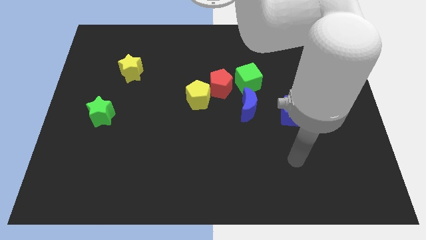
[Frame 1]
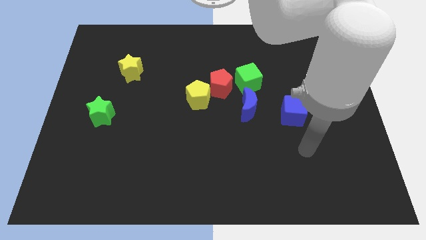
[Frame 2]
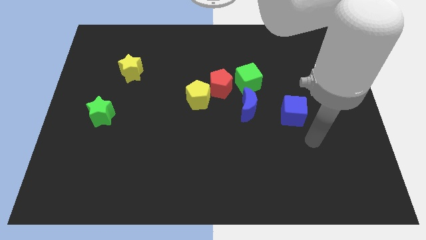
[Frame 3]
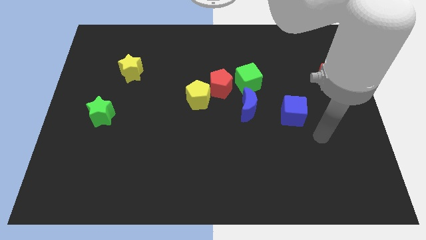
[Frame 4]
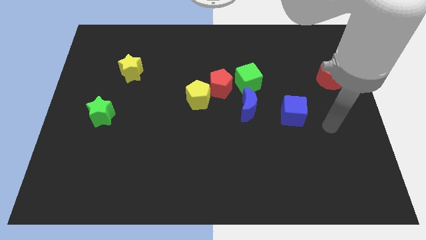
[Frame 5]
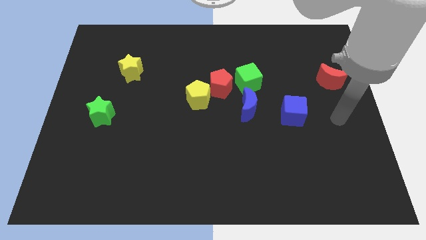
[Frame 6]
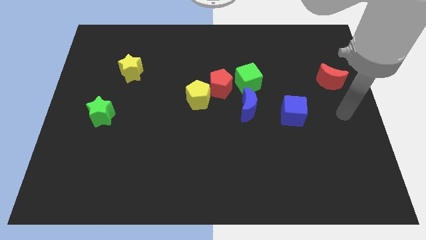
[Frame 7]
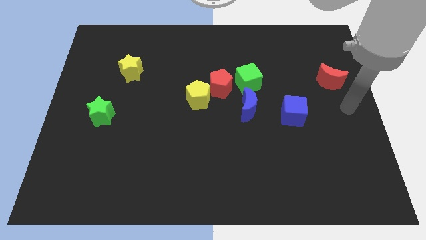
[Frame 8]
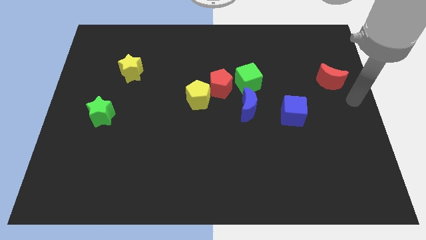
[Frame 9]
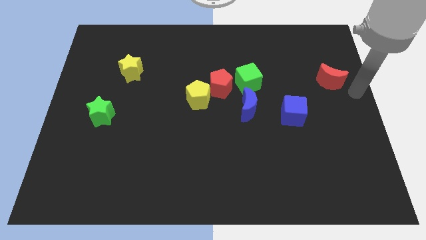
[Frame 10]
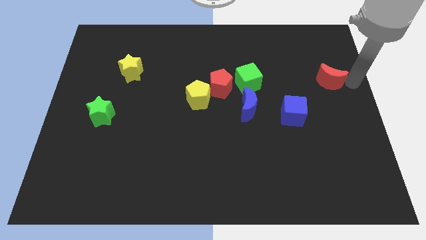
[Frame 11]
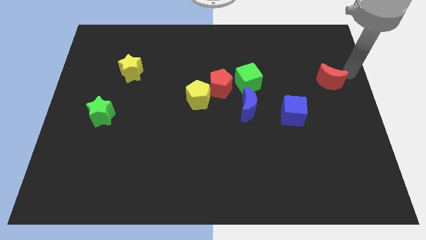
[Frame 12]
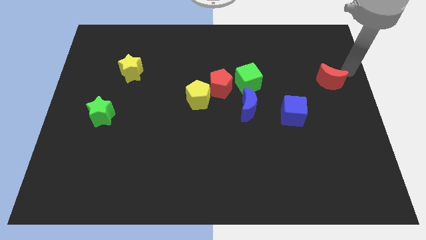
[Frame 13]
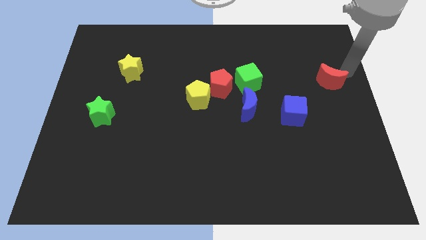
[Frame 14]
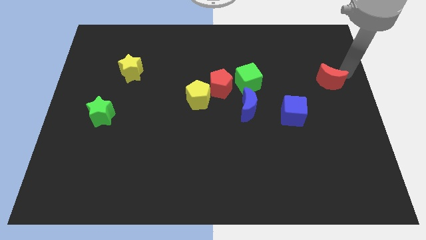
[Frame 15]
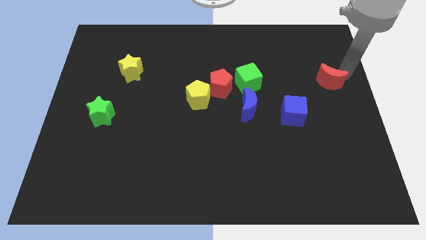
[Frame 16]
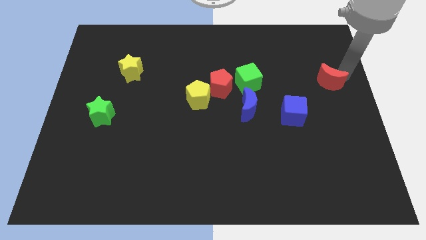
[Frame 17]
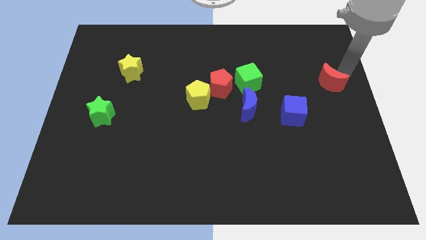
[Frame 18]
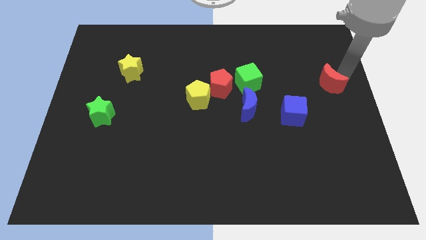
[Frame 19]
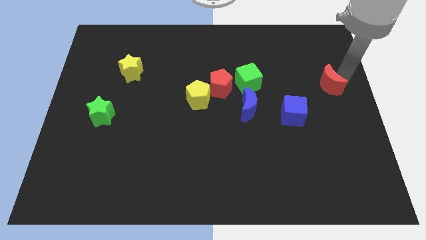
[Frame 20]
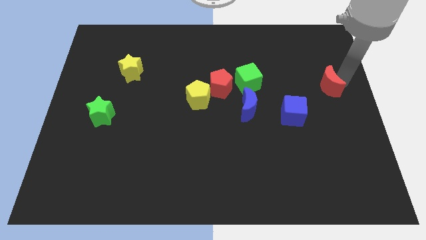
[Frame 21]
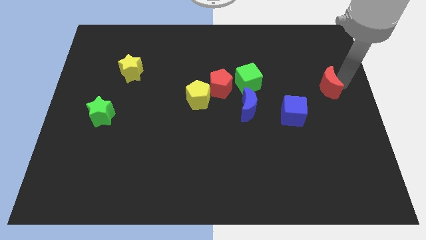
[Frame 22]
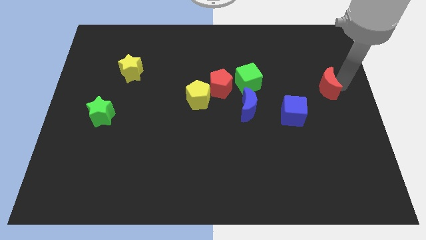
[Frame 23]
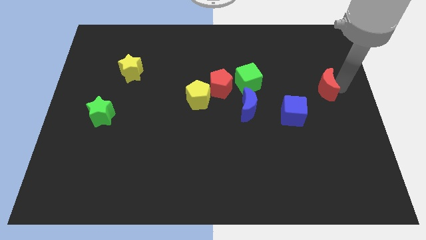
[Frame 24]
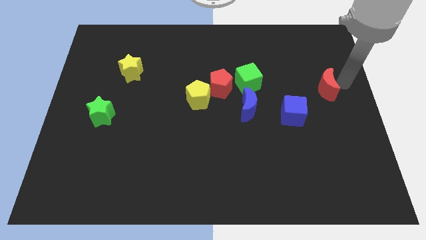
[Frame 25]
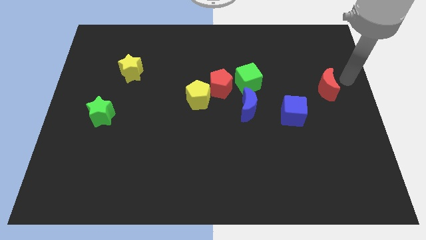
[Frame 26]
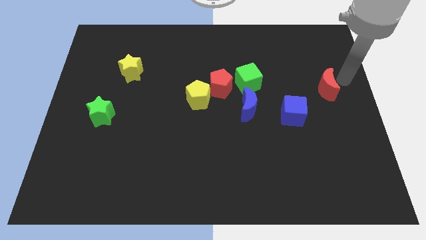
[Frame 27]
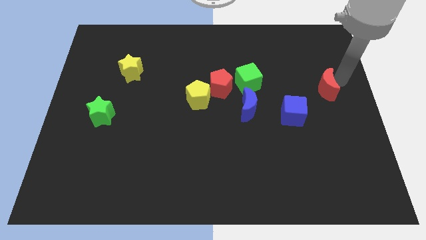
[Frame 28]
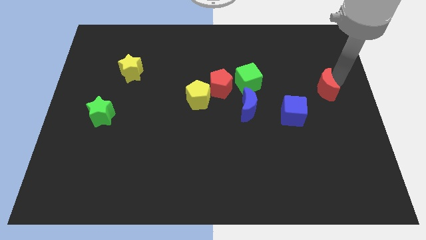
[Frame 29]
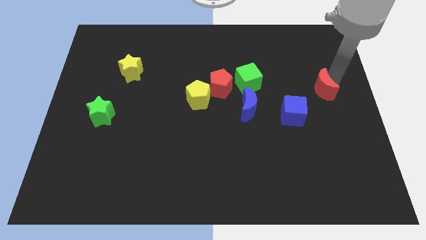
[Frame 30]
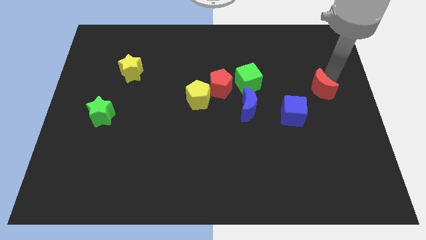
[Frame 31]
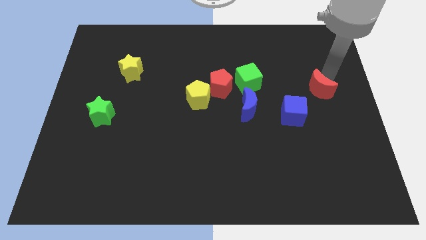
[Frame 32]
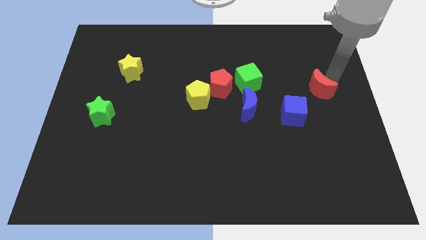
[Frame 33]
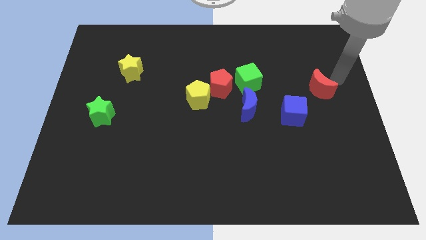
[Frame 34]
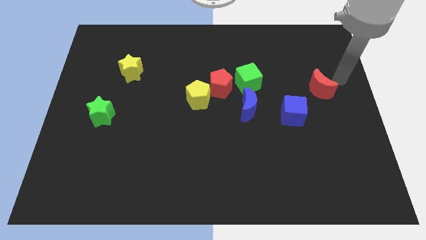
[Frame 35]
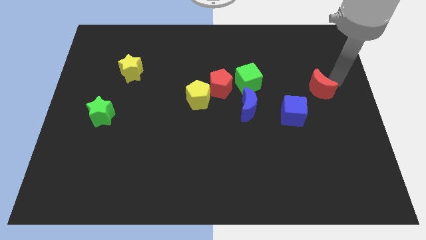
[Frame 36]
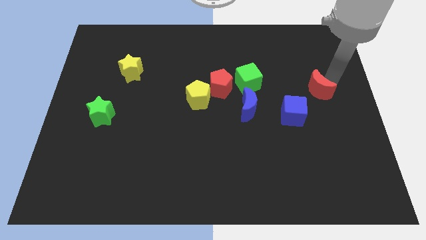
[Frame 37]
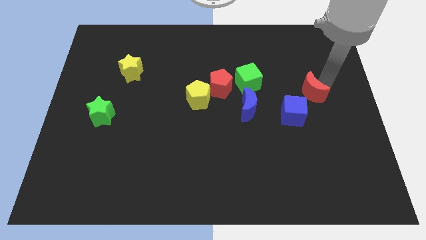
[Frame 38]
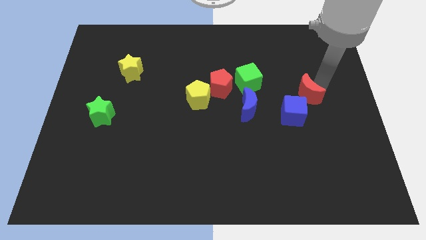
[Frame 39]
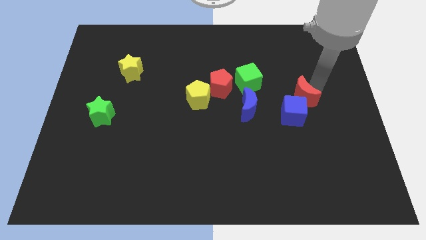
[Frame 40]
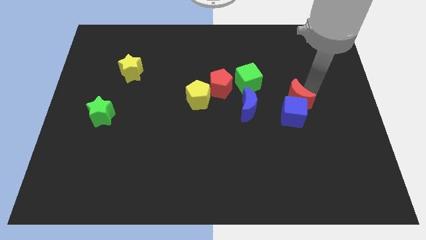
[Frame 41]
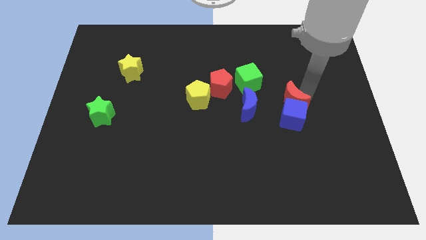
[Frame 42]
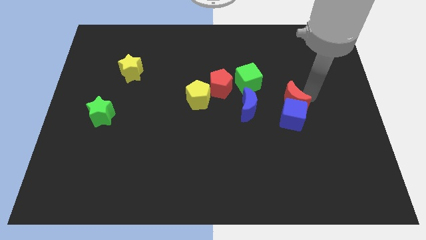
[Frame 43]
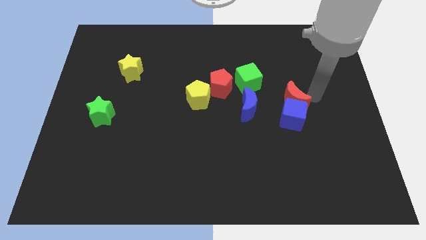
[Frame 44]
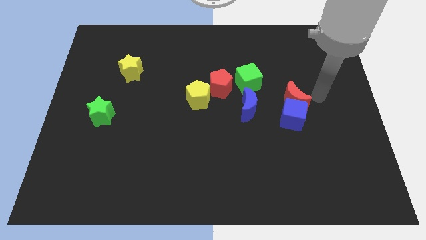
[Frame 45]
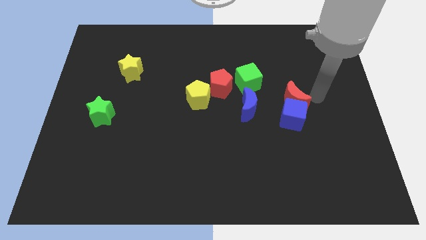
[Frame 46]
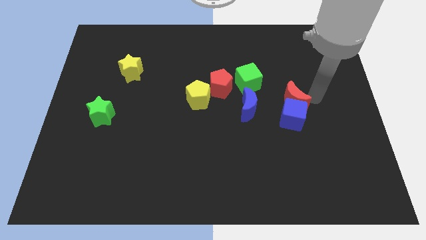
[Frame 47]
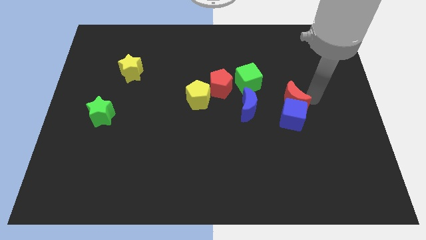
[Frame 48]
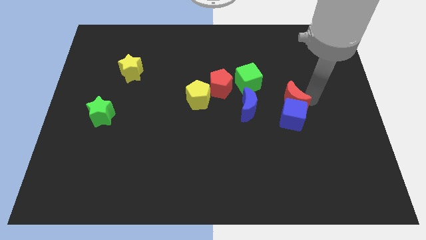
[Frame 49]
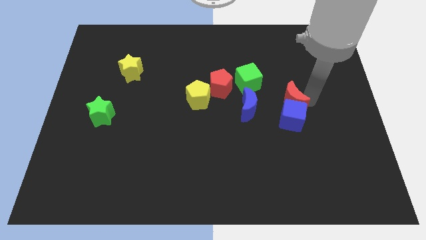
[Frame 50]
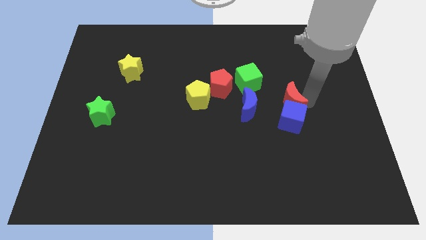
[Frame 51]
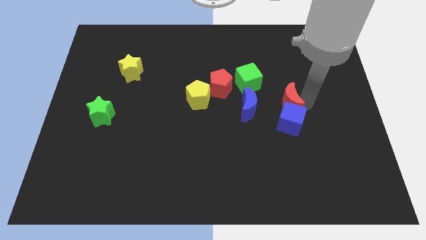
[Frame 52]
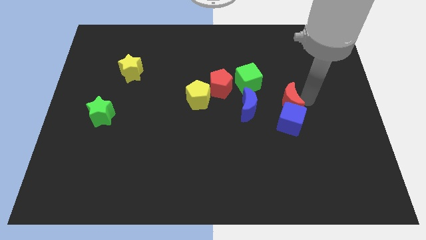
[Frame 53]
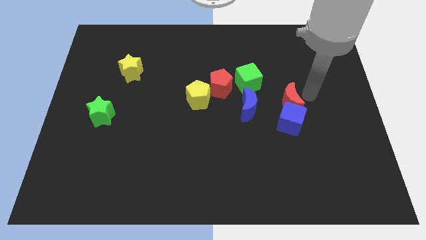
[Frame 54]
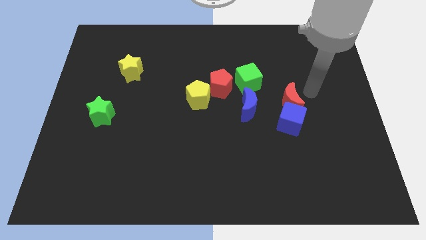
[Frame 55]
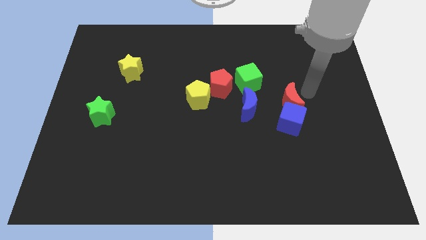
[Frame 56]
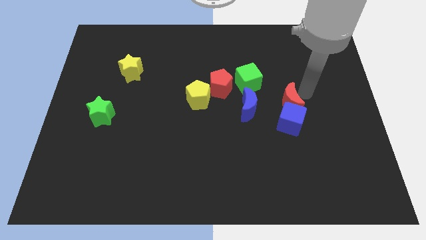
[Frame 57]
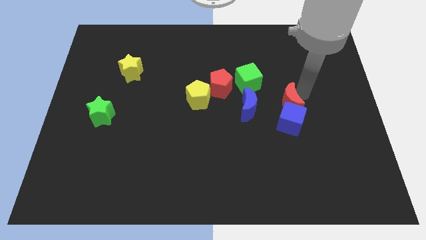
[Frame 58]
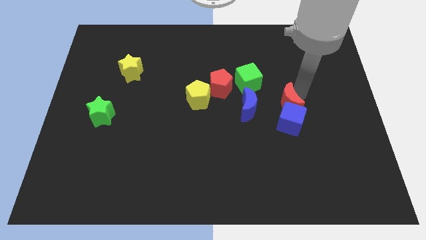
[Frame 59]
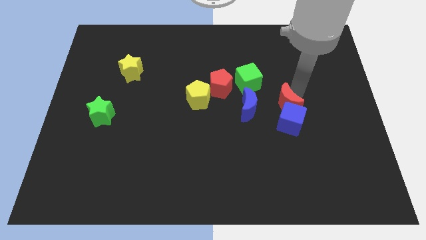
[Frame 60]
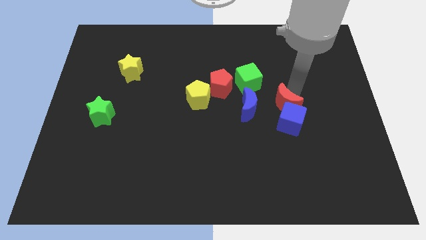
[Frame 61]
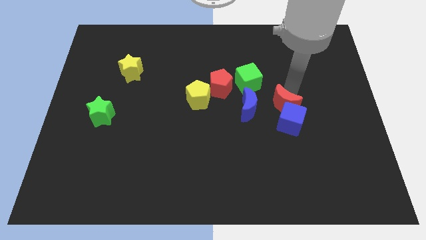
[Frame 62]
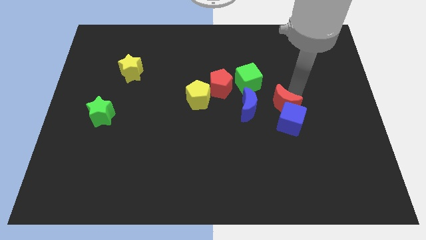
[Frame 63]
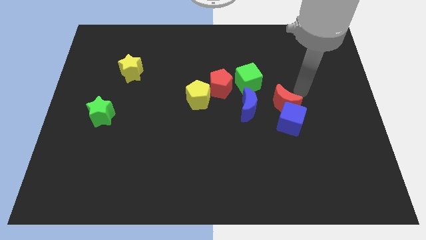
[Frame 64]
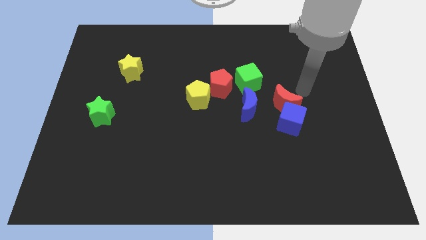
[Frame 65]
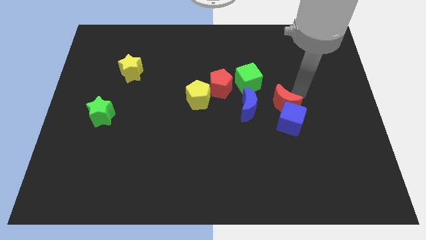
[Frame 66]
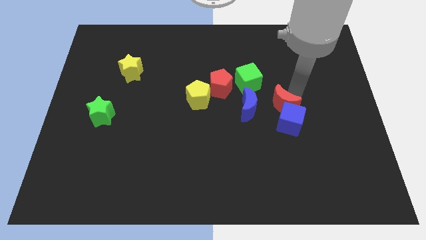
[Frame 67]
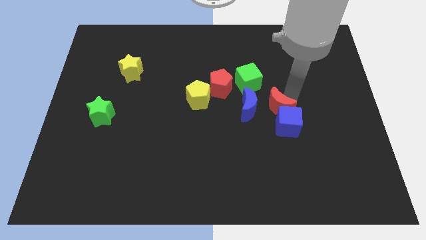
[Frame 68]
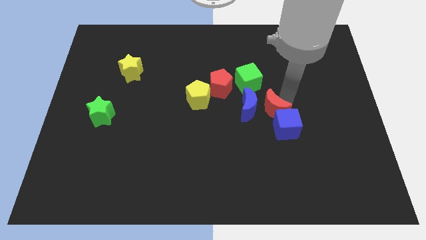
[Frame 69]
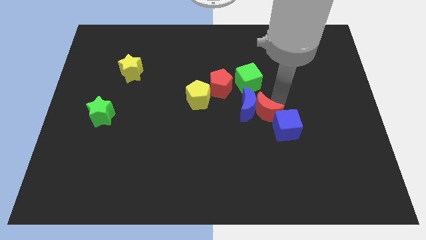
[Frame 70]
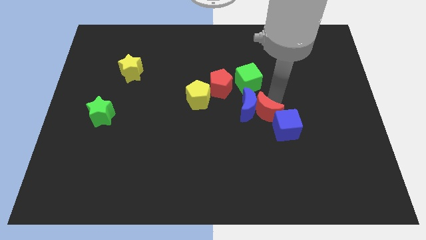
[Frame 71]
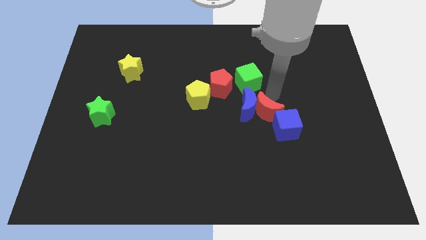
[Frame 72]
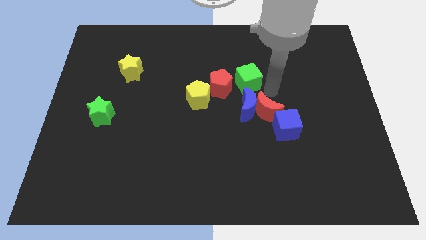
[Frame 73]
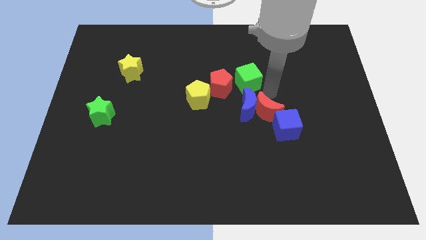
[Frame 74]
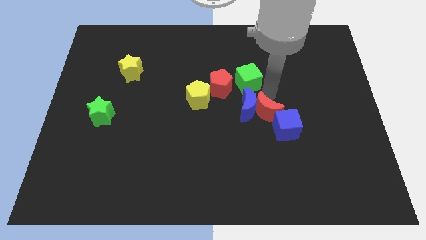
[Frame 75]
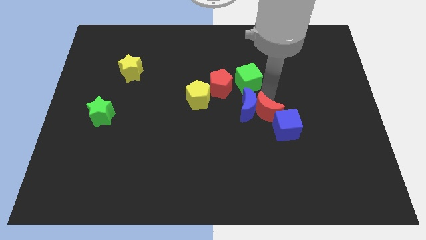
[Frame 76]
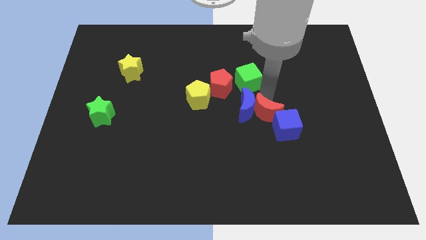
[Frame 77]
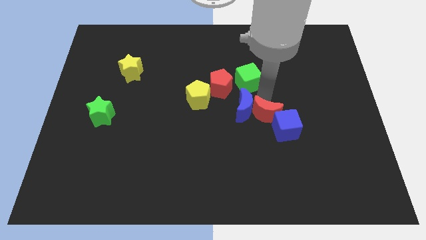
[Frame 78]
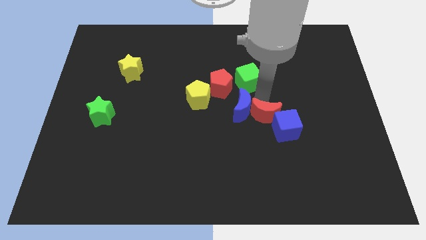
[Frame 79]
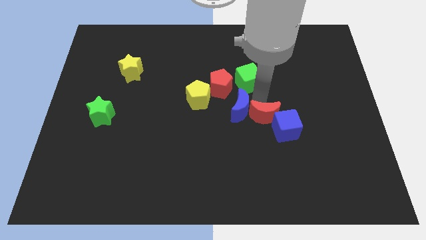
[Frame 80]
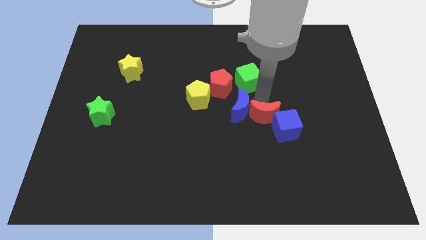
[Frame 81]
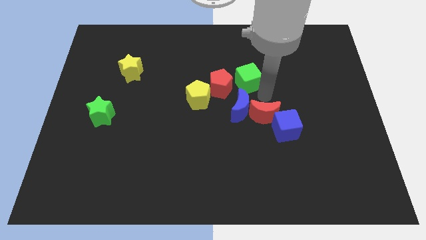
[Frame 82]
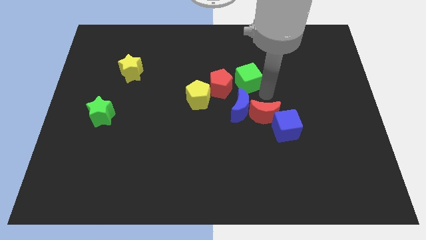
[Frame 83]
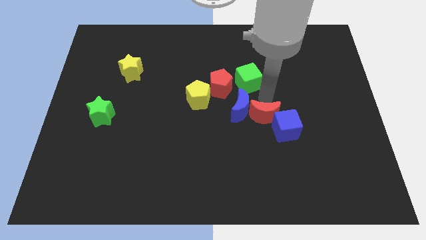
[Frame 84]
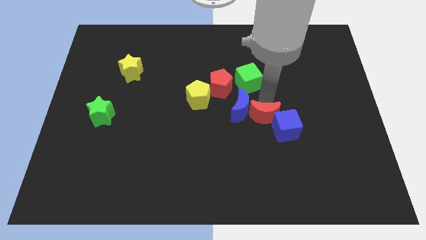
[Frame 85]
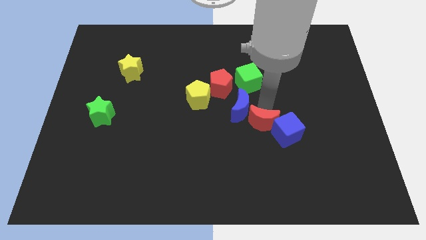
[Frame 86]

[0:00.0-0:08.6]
move the red moon downwards and to the left diagonally
